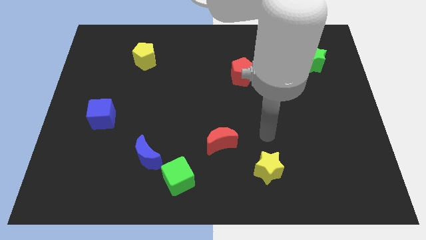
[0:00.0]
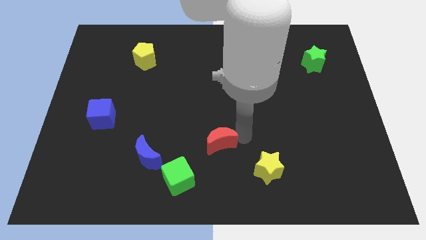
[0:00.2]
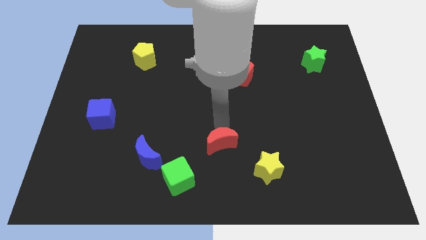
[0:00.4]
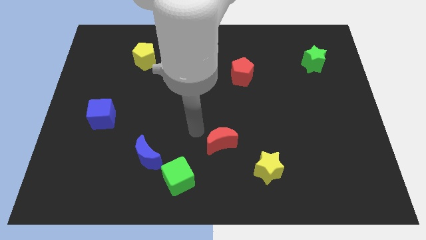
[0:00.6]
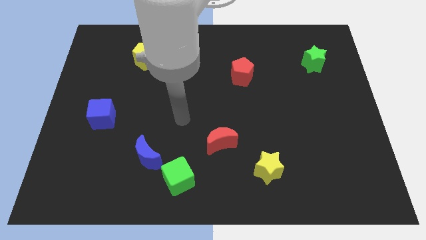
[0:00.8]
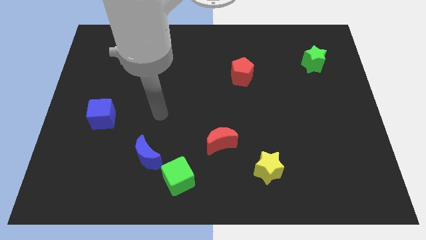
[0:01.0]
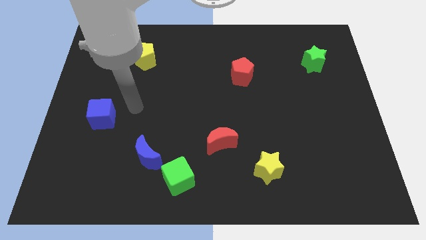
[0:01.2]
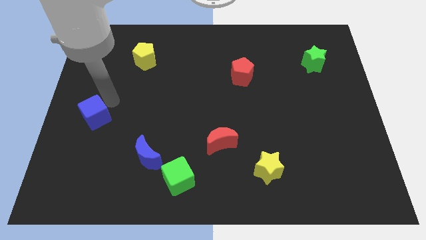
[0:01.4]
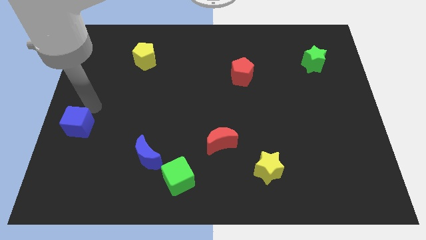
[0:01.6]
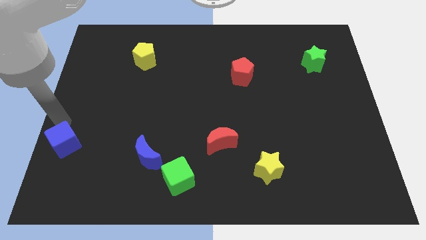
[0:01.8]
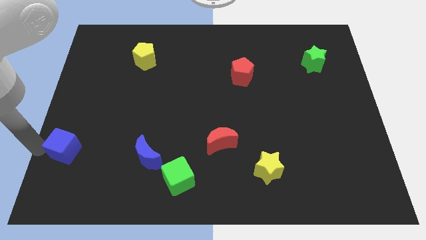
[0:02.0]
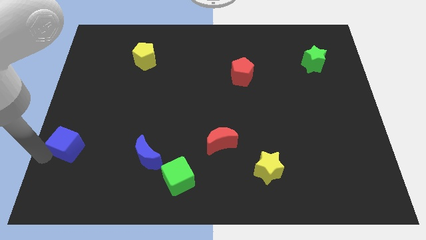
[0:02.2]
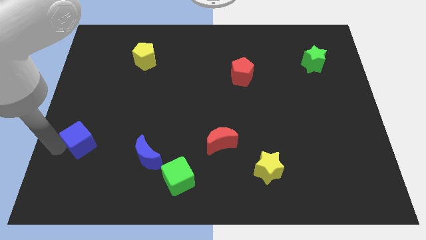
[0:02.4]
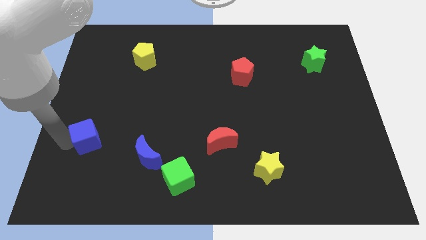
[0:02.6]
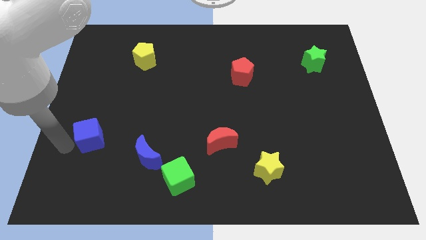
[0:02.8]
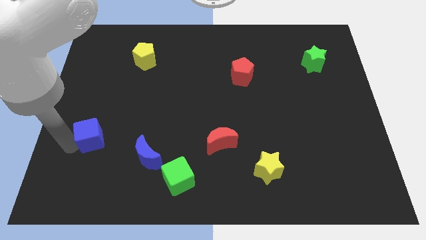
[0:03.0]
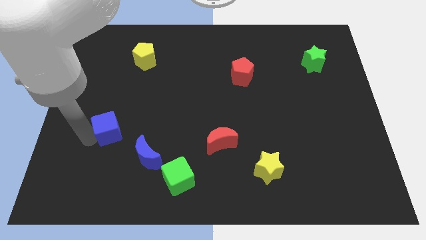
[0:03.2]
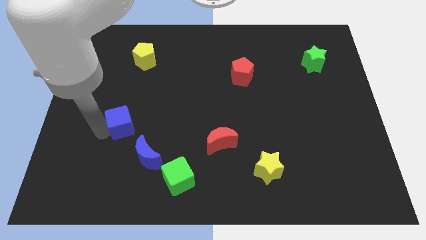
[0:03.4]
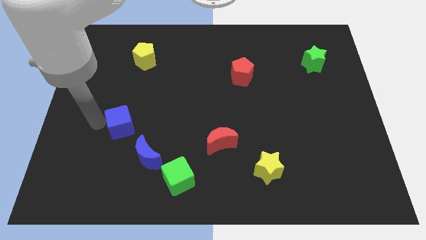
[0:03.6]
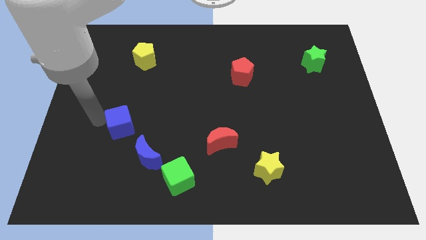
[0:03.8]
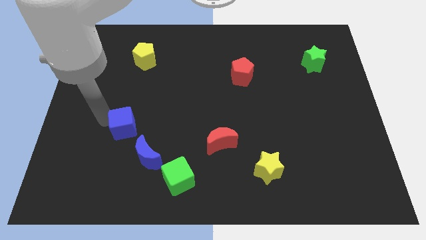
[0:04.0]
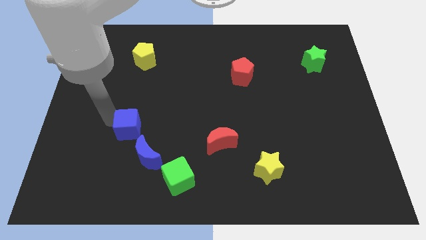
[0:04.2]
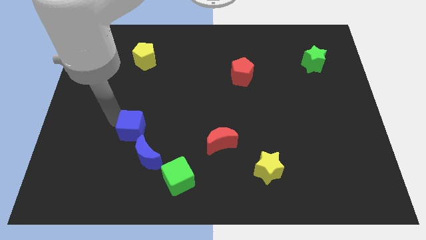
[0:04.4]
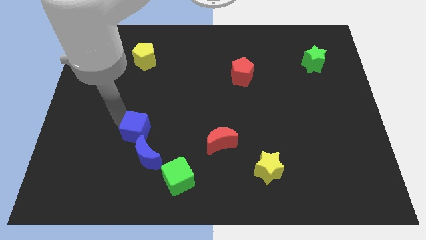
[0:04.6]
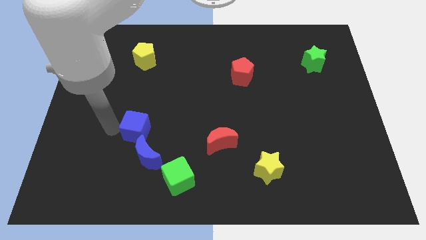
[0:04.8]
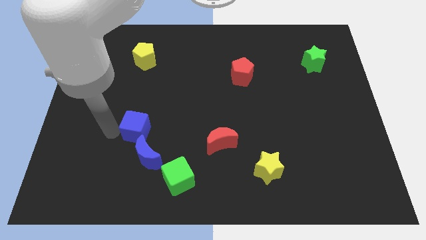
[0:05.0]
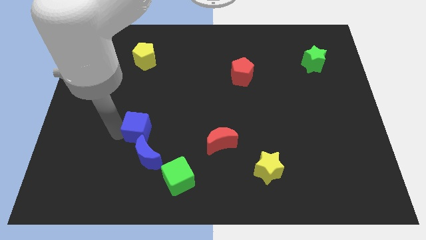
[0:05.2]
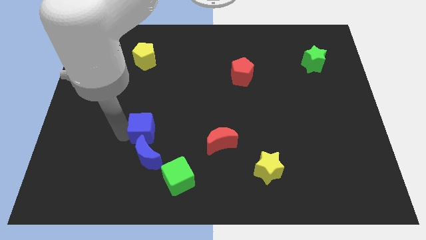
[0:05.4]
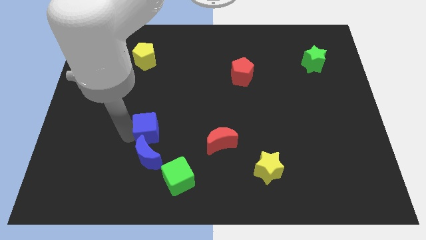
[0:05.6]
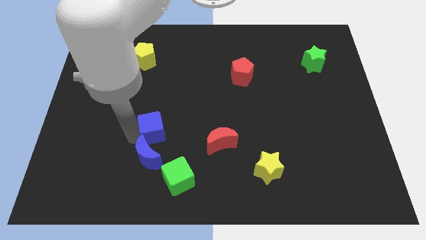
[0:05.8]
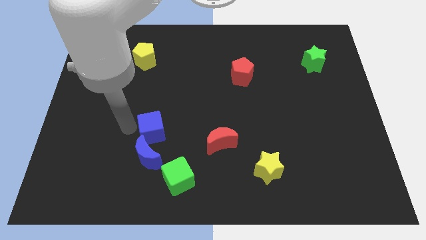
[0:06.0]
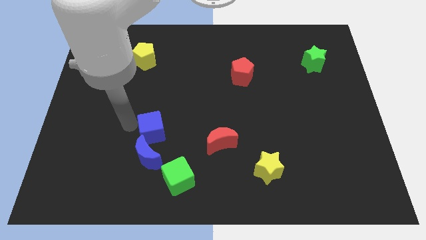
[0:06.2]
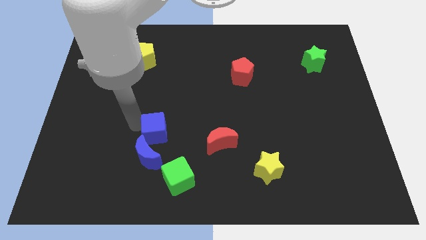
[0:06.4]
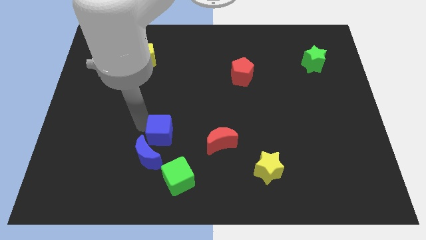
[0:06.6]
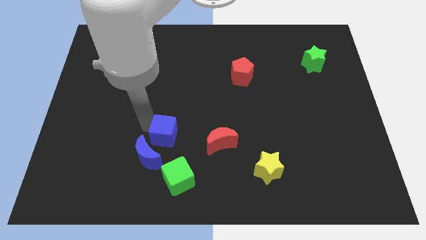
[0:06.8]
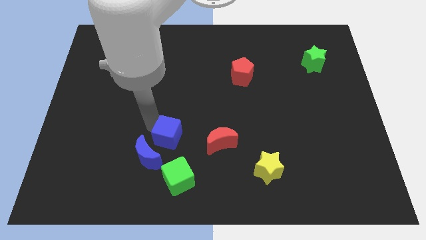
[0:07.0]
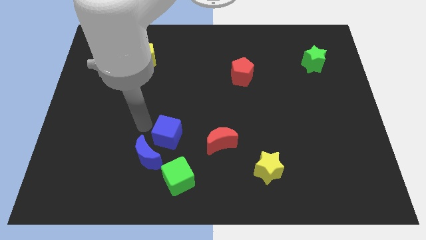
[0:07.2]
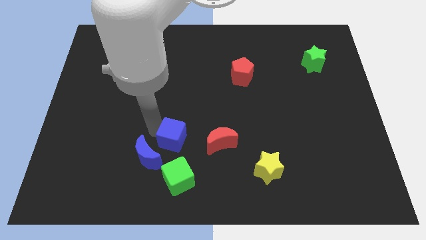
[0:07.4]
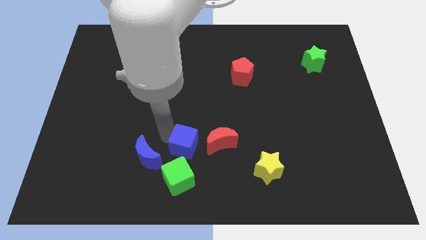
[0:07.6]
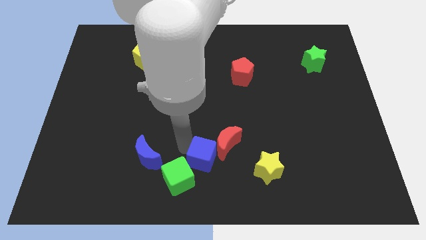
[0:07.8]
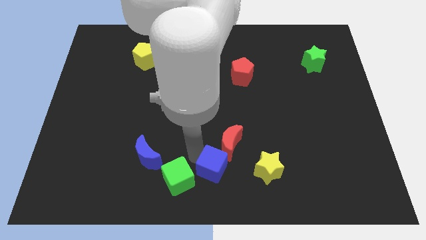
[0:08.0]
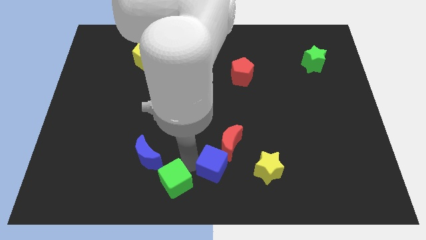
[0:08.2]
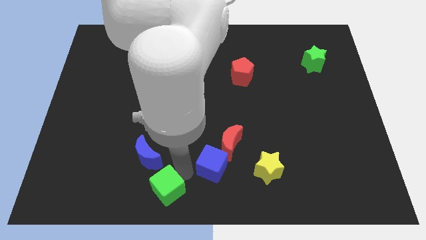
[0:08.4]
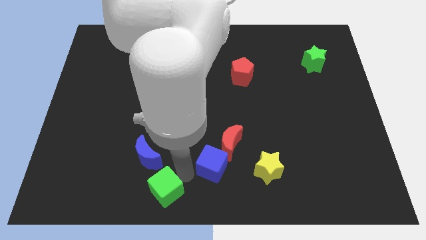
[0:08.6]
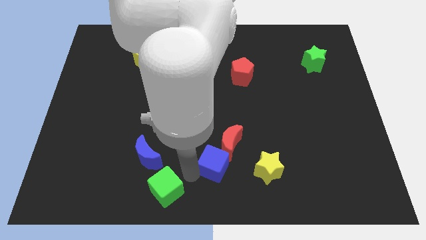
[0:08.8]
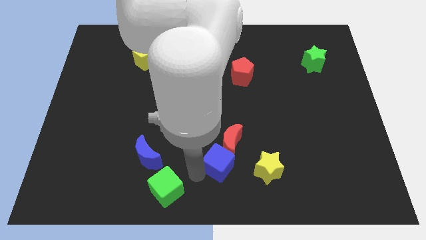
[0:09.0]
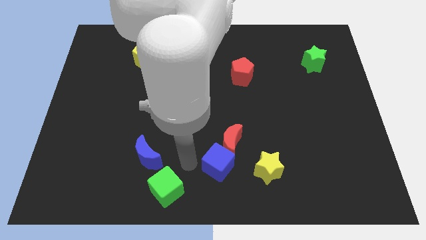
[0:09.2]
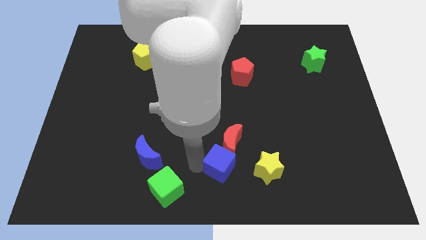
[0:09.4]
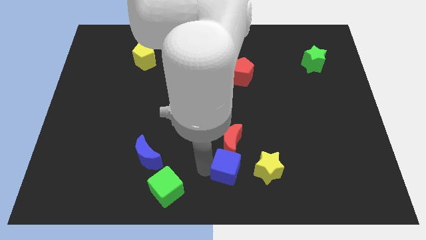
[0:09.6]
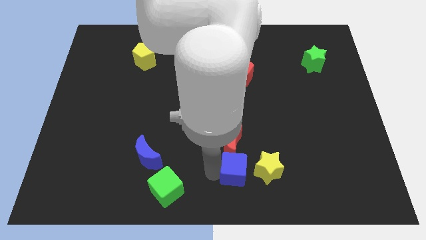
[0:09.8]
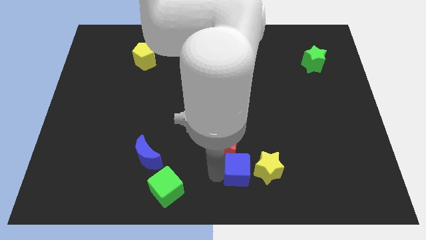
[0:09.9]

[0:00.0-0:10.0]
move the blue cube close to the yellow star

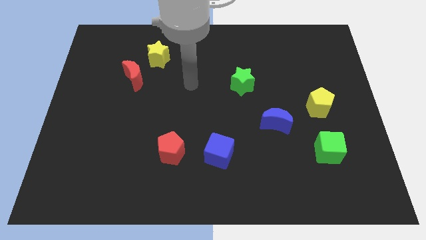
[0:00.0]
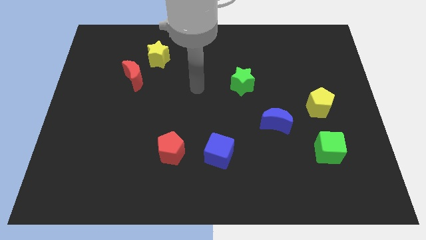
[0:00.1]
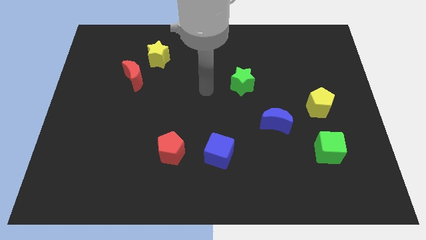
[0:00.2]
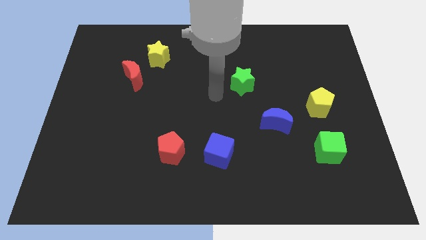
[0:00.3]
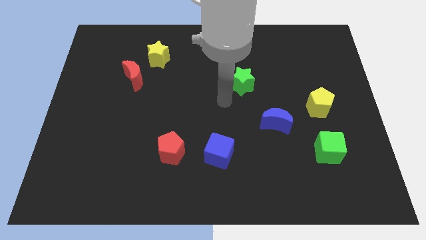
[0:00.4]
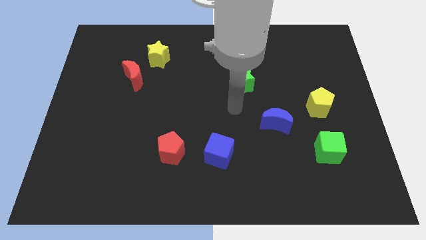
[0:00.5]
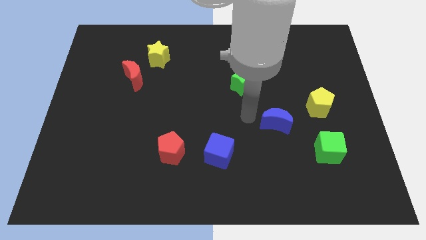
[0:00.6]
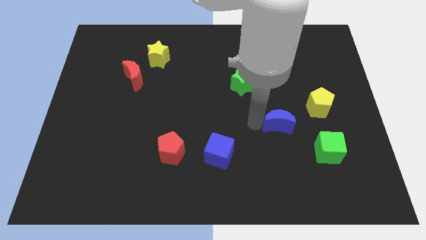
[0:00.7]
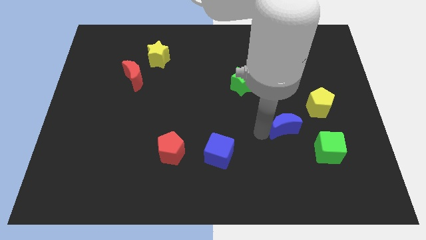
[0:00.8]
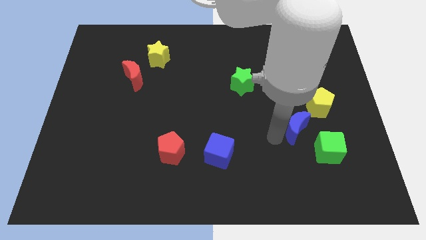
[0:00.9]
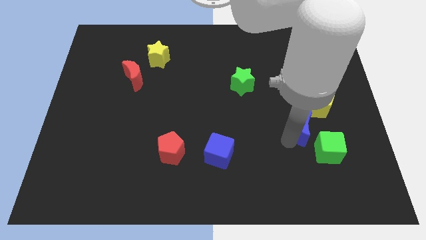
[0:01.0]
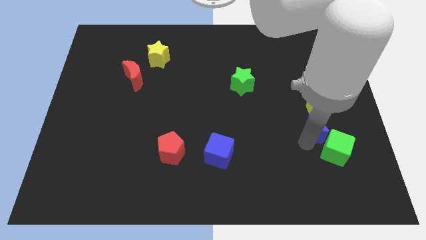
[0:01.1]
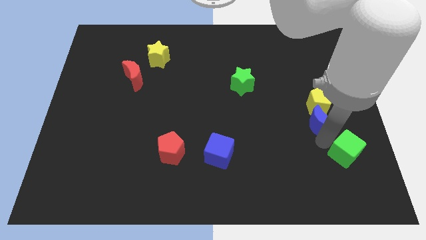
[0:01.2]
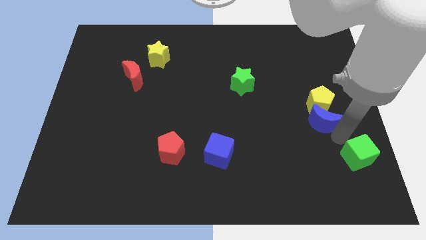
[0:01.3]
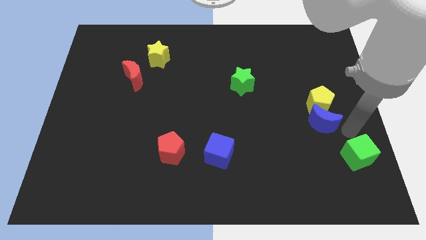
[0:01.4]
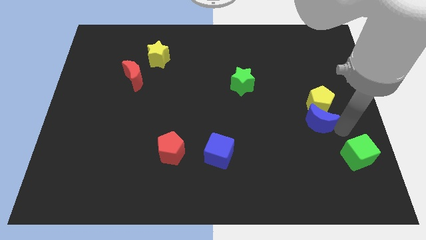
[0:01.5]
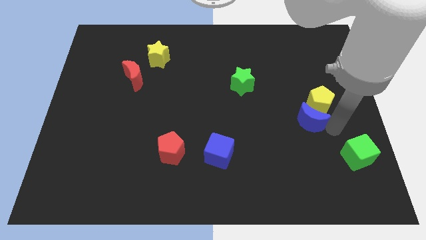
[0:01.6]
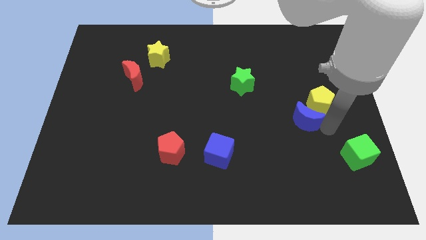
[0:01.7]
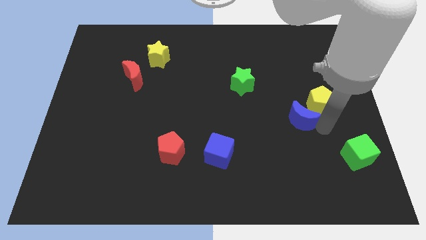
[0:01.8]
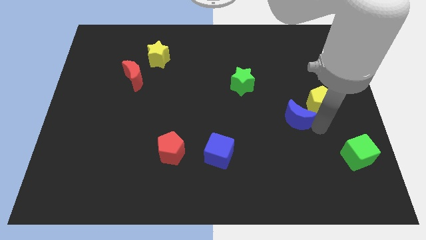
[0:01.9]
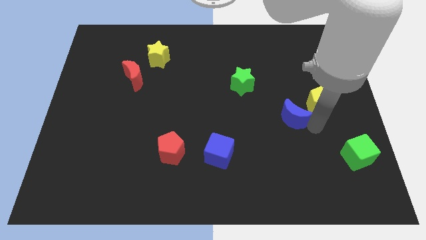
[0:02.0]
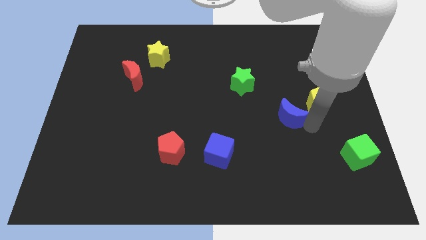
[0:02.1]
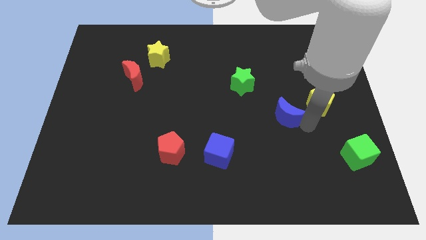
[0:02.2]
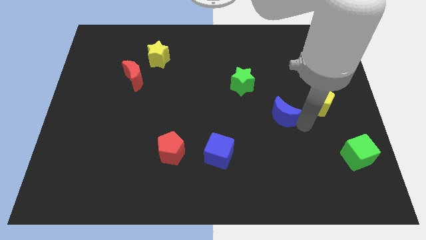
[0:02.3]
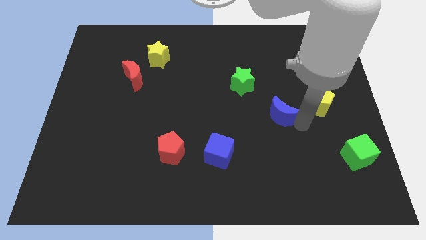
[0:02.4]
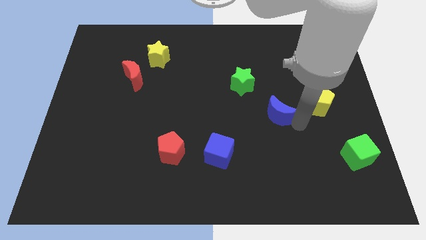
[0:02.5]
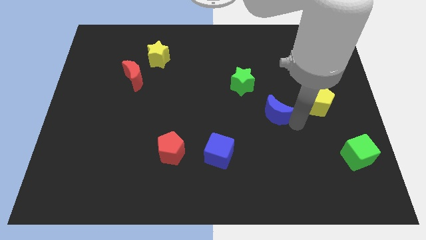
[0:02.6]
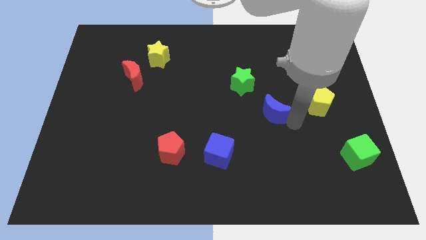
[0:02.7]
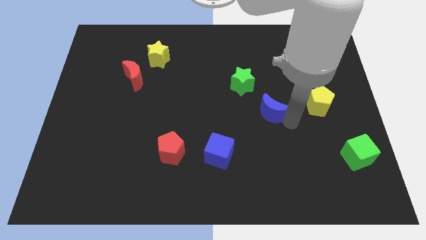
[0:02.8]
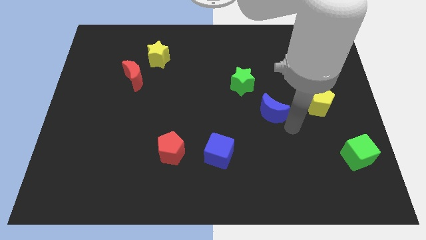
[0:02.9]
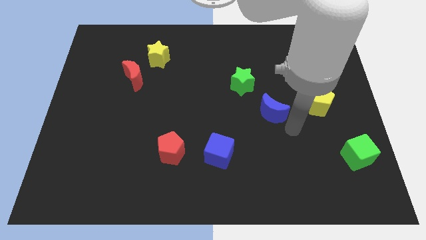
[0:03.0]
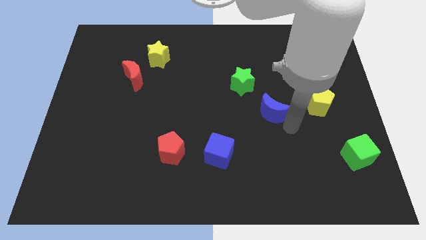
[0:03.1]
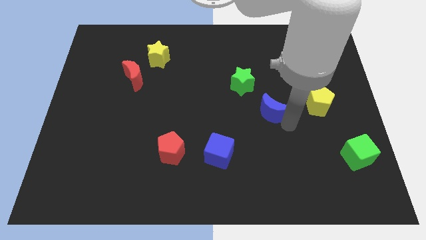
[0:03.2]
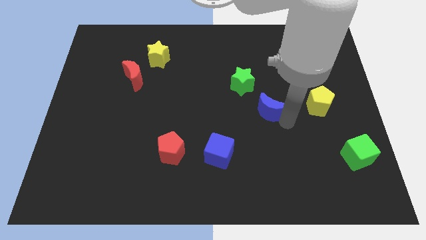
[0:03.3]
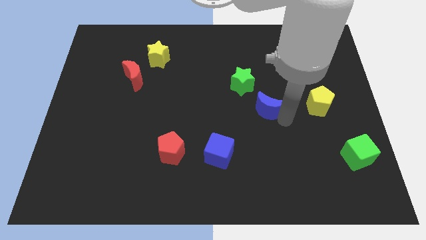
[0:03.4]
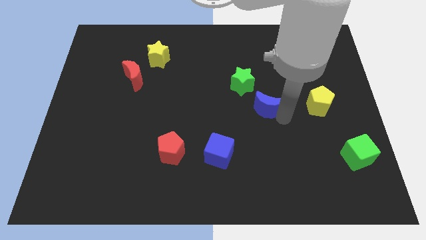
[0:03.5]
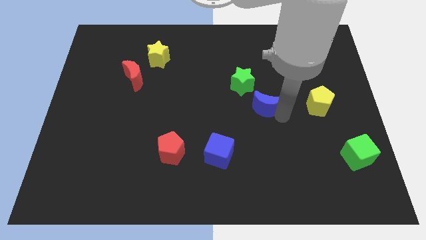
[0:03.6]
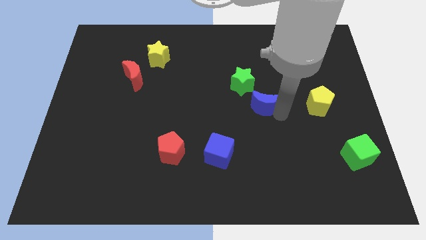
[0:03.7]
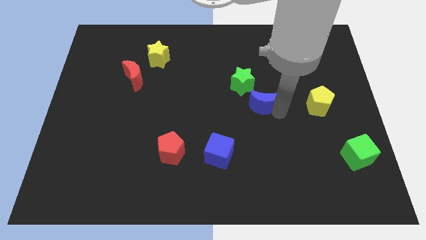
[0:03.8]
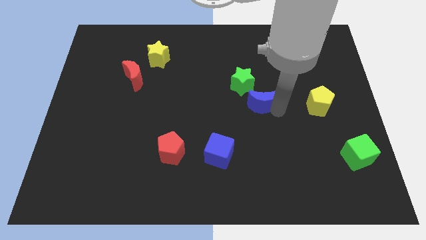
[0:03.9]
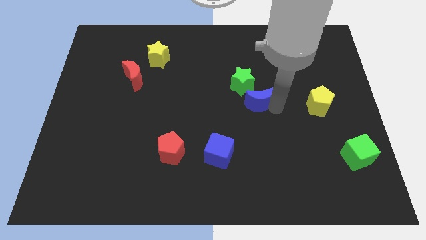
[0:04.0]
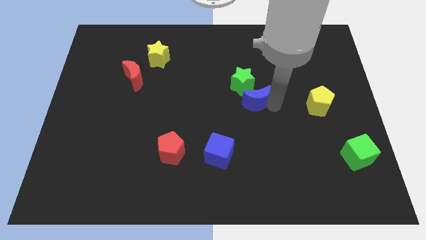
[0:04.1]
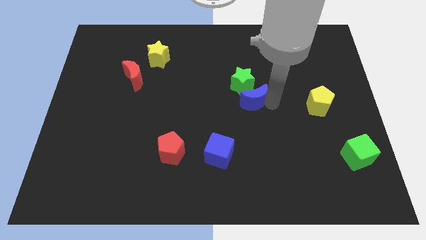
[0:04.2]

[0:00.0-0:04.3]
move the blue moon next to the green star
